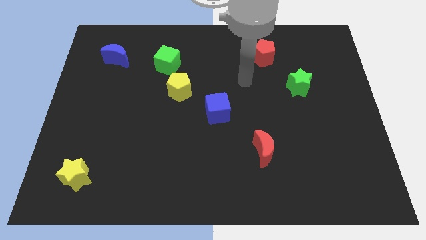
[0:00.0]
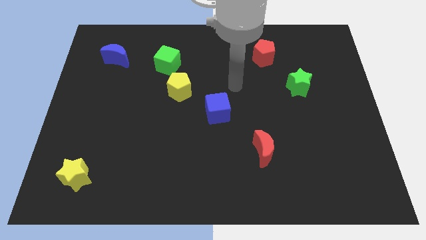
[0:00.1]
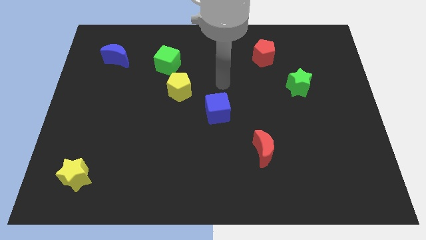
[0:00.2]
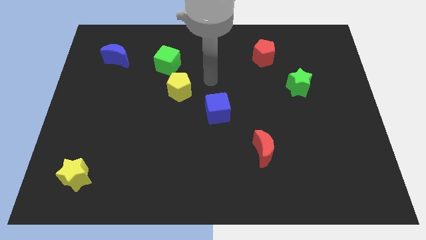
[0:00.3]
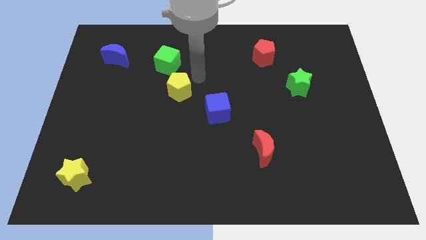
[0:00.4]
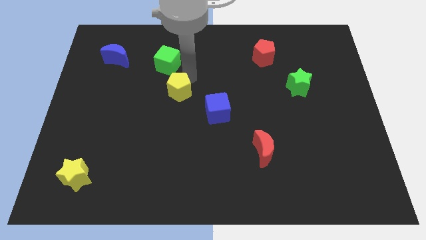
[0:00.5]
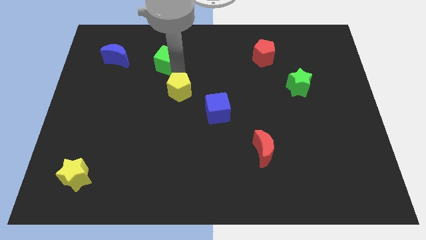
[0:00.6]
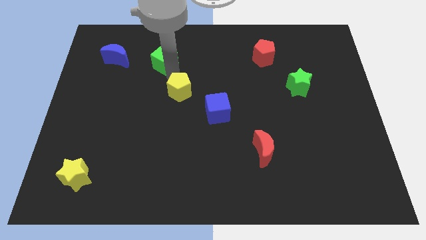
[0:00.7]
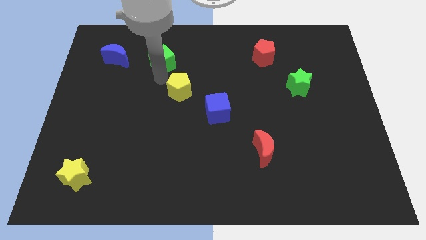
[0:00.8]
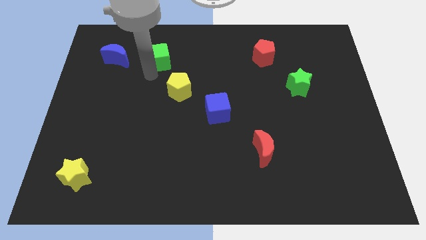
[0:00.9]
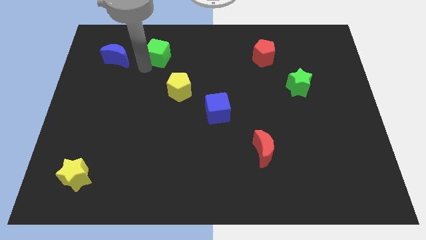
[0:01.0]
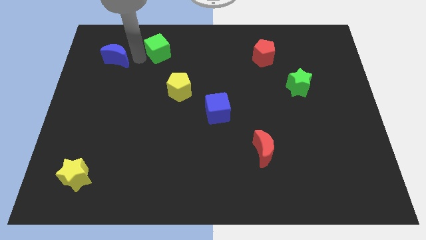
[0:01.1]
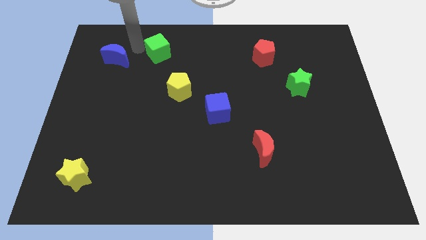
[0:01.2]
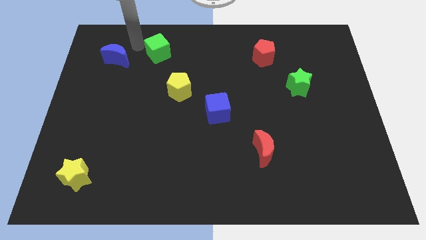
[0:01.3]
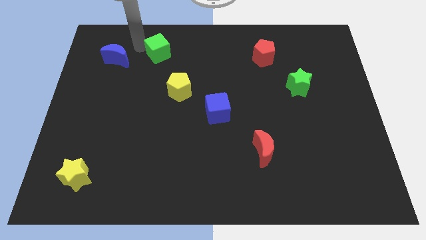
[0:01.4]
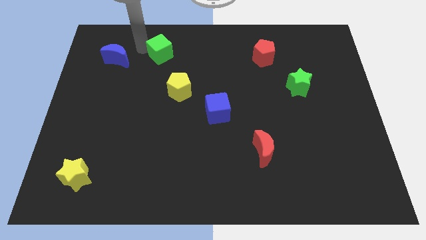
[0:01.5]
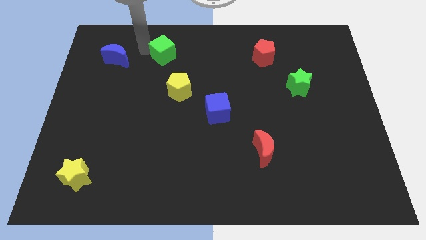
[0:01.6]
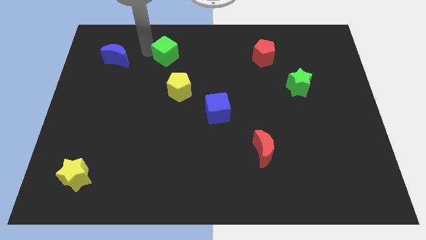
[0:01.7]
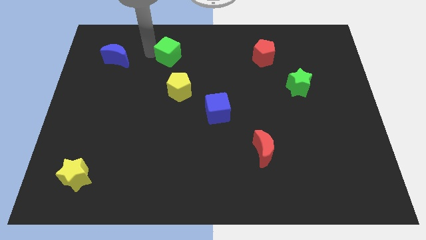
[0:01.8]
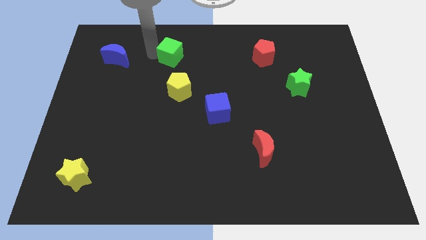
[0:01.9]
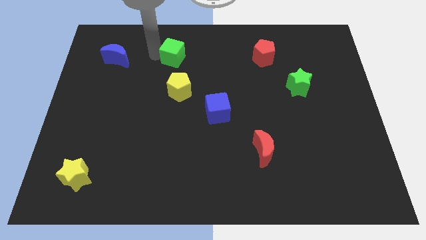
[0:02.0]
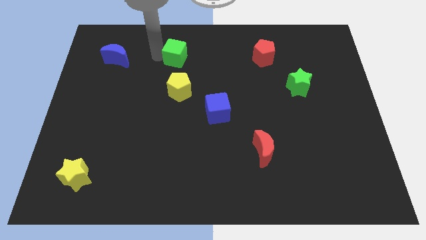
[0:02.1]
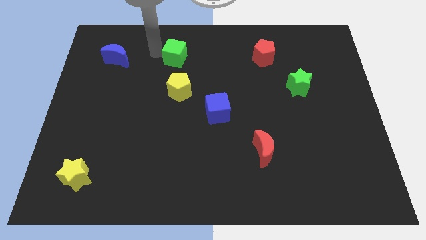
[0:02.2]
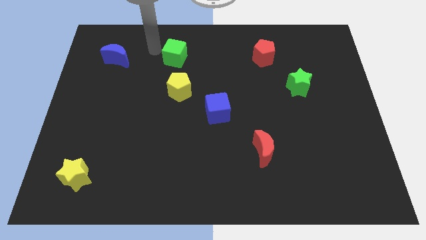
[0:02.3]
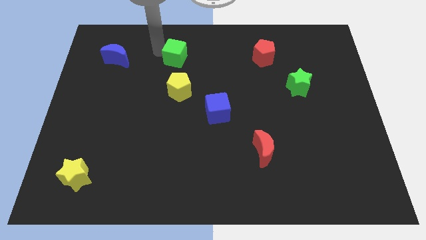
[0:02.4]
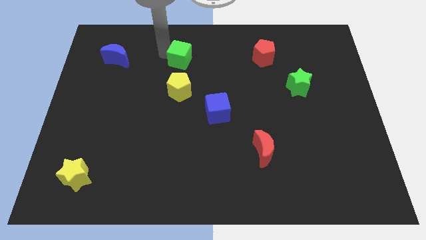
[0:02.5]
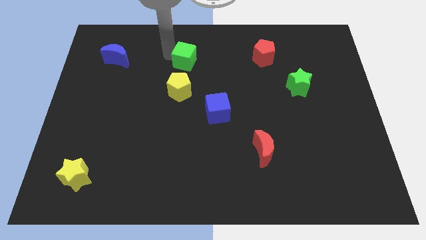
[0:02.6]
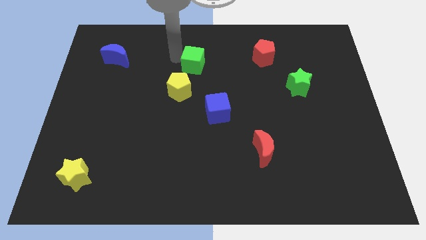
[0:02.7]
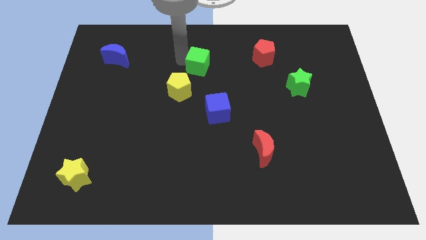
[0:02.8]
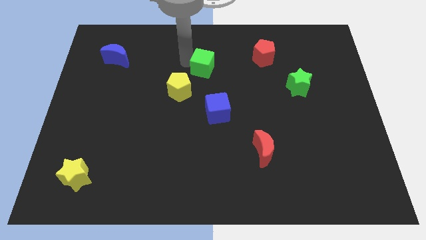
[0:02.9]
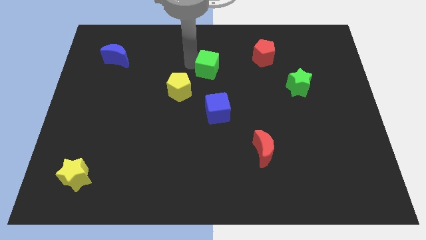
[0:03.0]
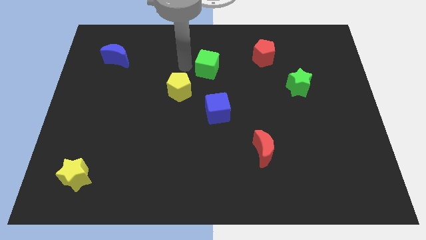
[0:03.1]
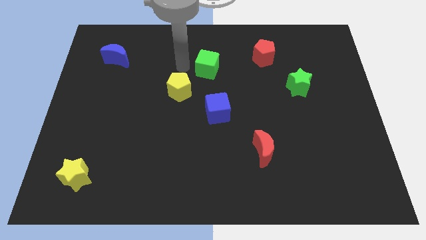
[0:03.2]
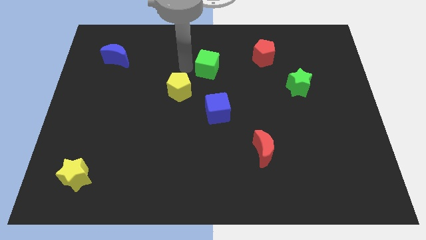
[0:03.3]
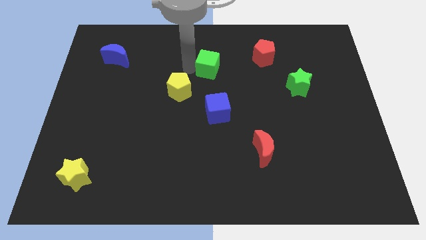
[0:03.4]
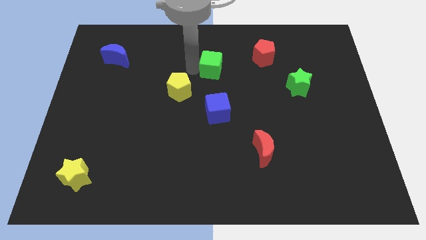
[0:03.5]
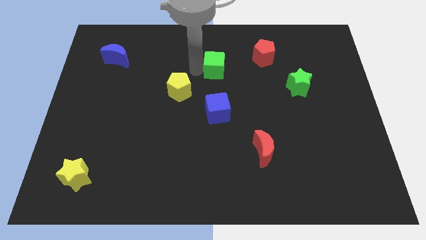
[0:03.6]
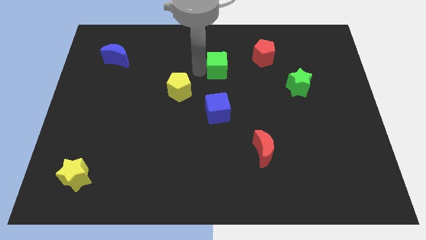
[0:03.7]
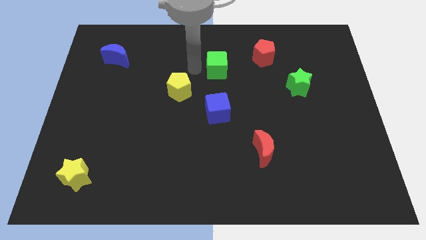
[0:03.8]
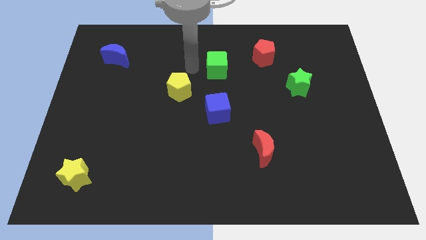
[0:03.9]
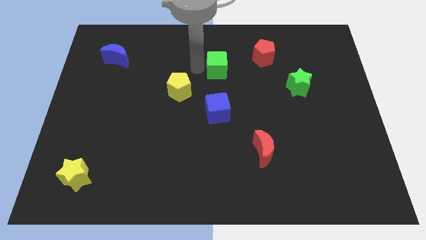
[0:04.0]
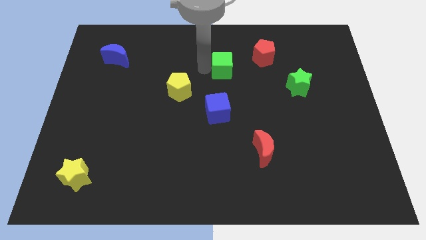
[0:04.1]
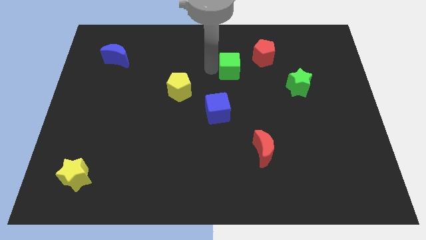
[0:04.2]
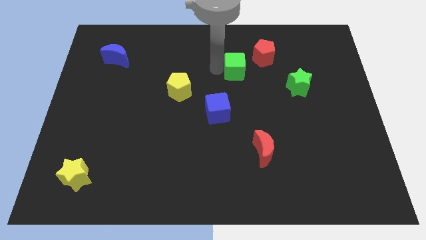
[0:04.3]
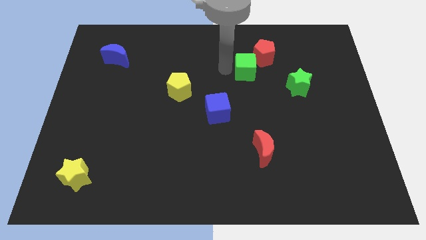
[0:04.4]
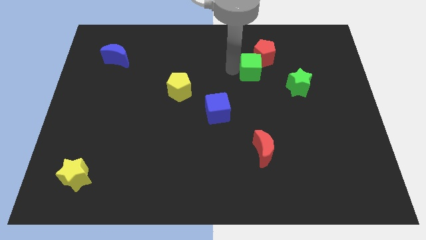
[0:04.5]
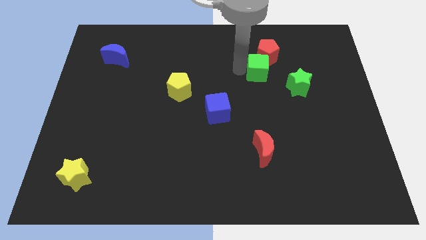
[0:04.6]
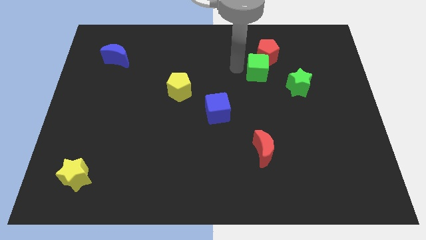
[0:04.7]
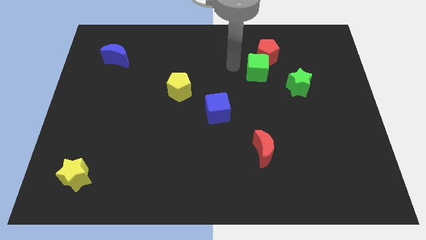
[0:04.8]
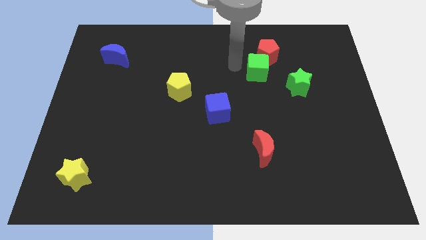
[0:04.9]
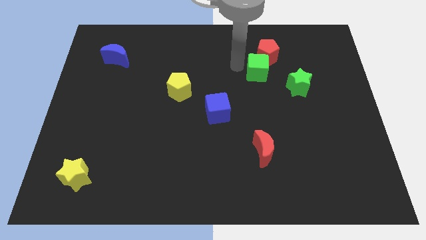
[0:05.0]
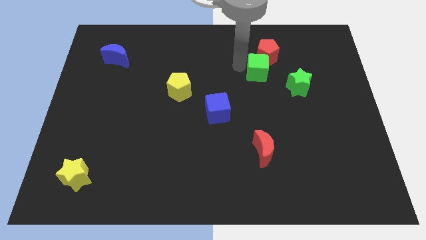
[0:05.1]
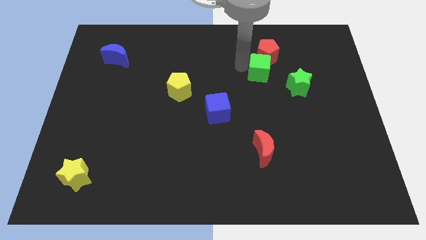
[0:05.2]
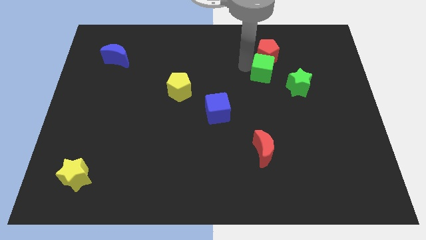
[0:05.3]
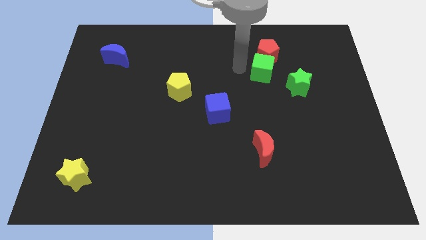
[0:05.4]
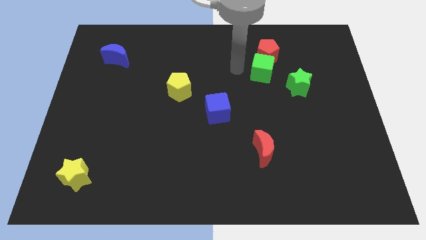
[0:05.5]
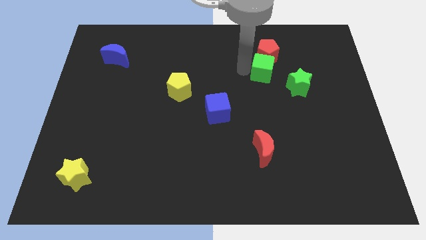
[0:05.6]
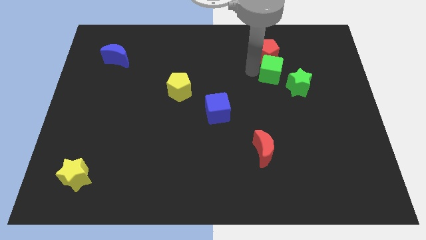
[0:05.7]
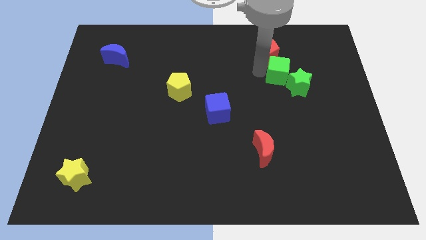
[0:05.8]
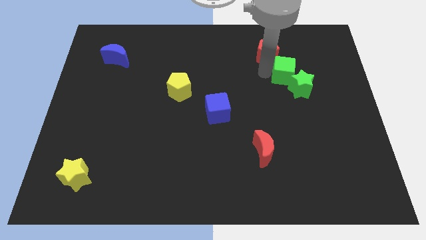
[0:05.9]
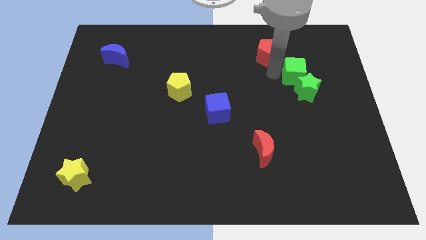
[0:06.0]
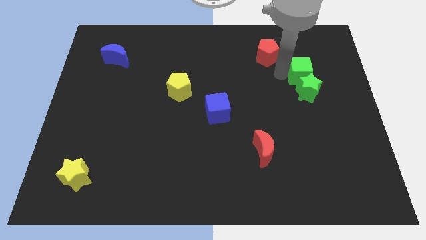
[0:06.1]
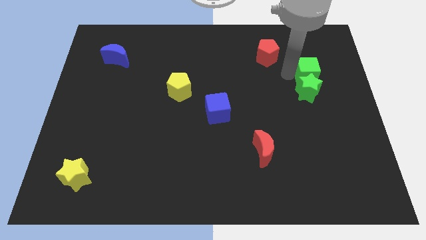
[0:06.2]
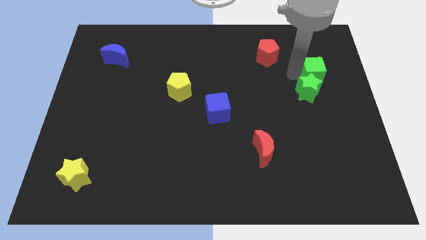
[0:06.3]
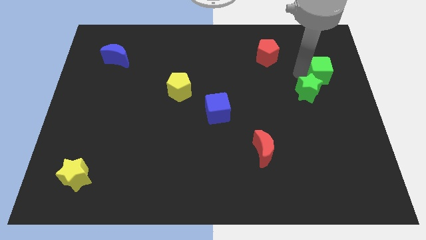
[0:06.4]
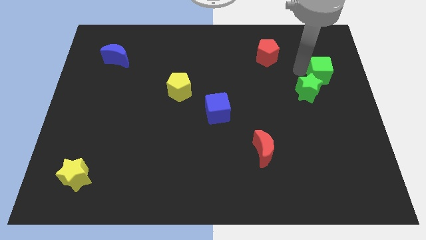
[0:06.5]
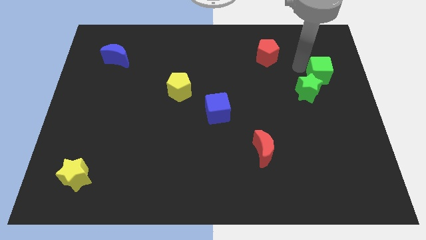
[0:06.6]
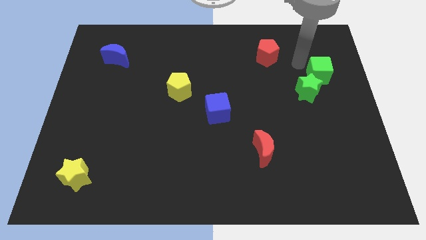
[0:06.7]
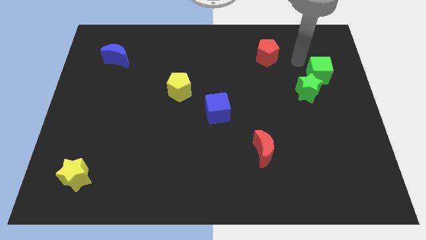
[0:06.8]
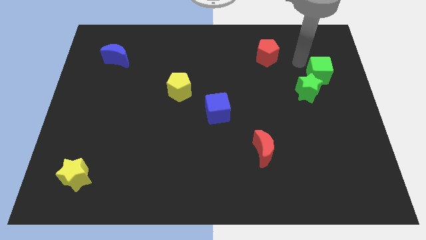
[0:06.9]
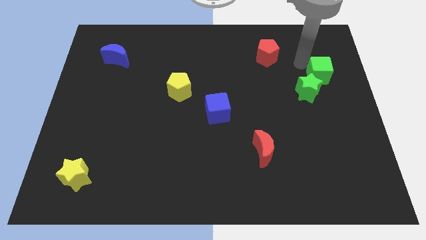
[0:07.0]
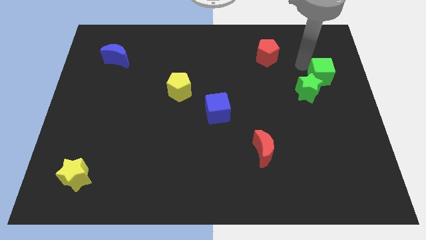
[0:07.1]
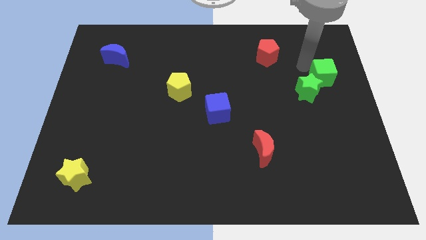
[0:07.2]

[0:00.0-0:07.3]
move the green cube to the right side of the board
